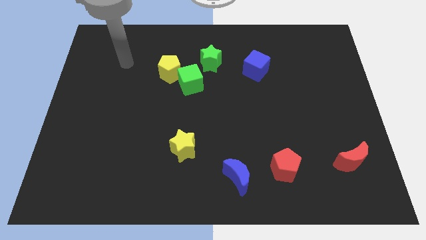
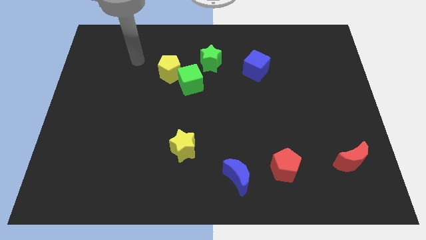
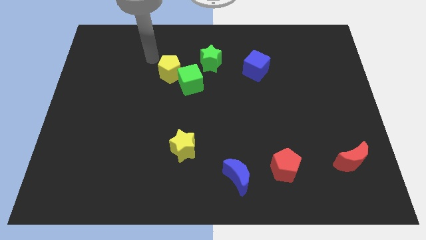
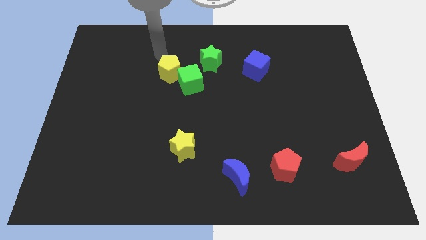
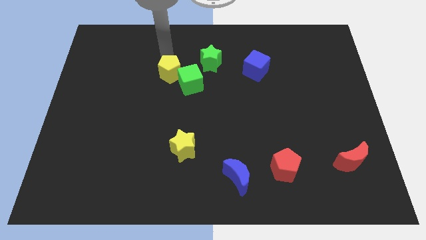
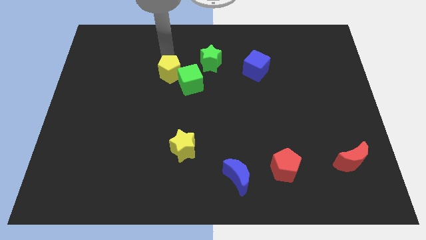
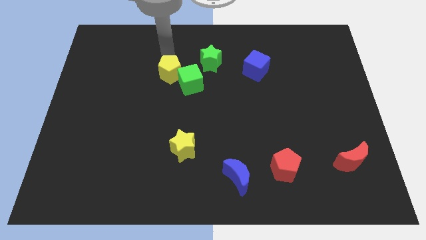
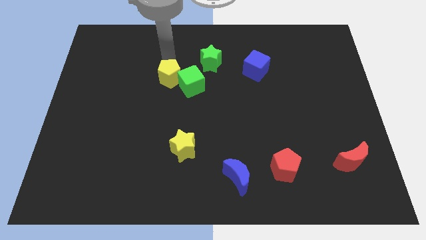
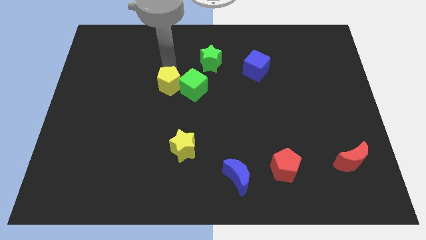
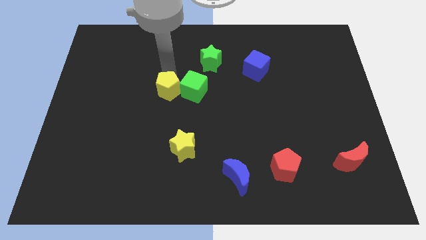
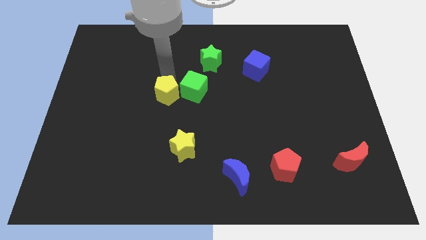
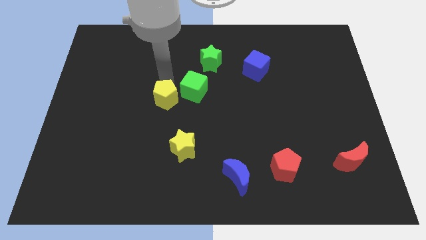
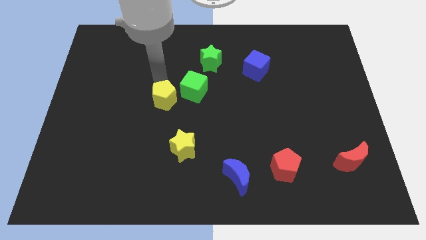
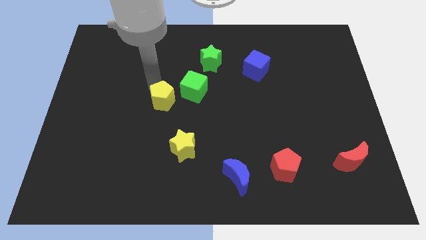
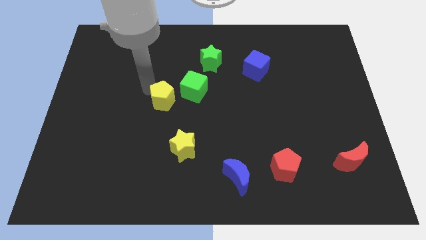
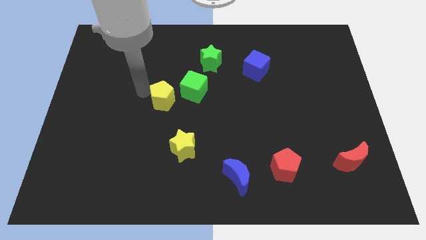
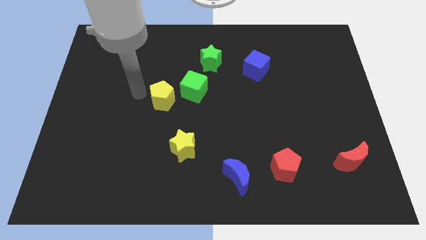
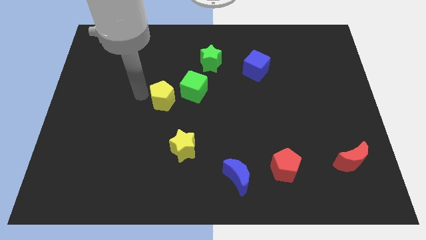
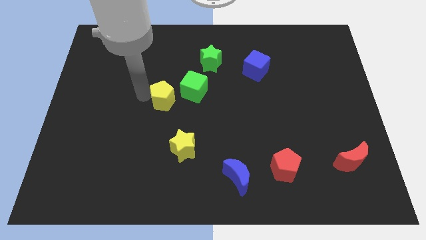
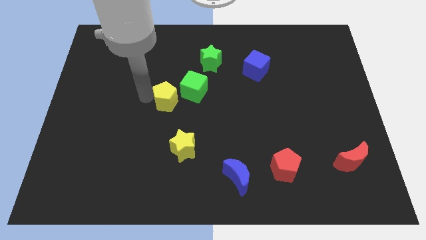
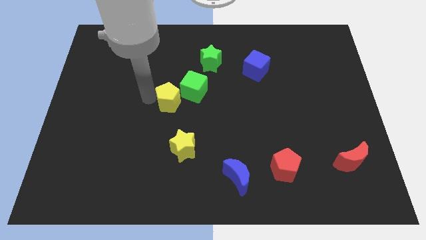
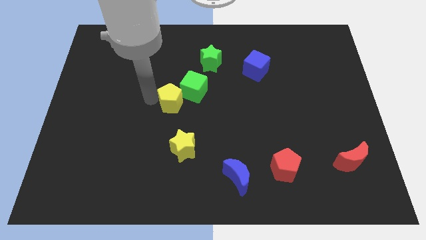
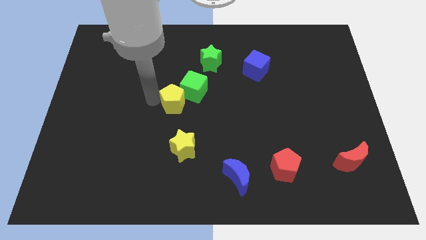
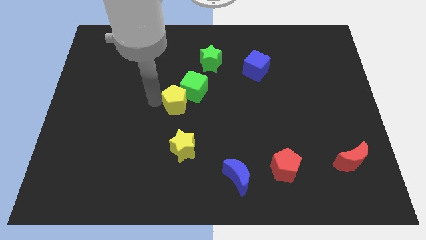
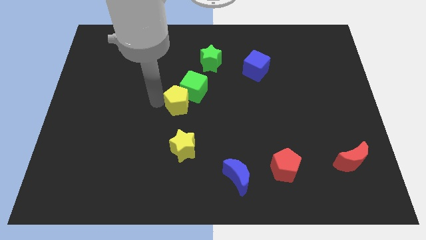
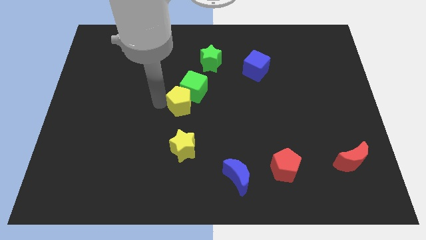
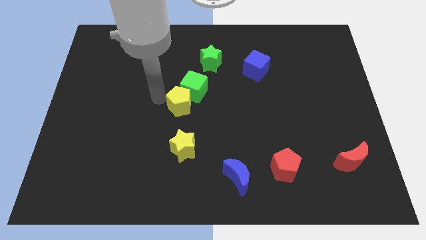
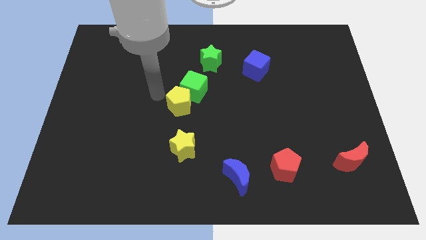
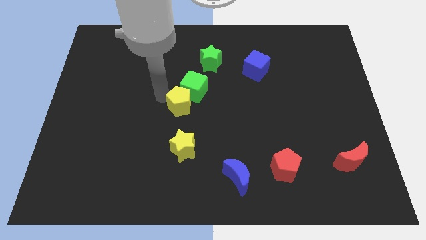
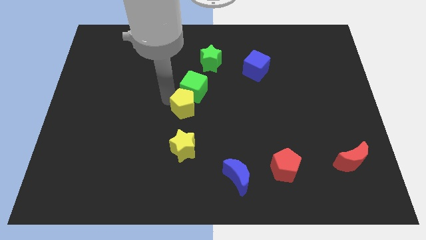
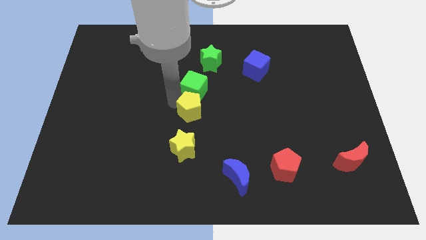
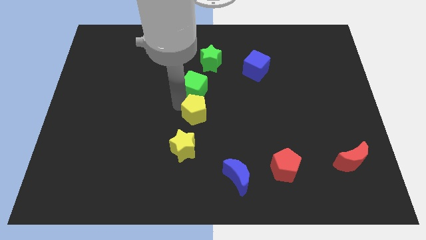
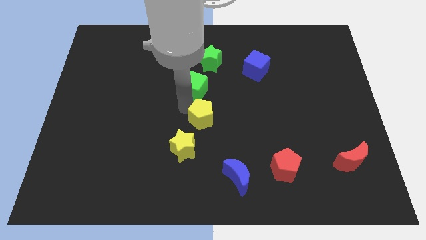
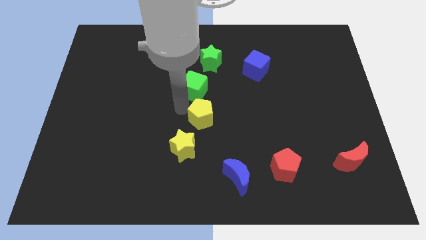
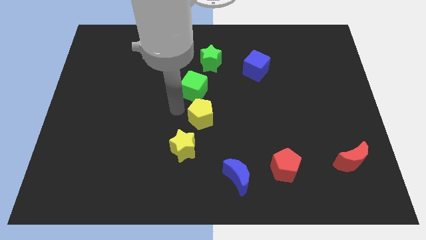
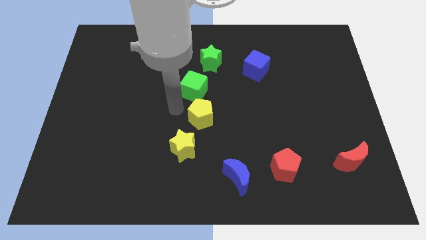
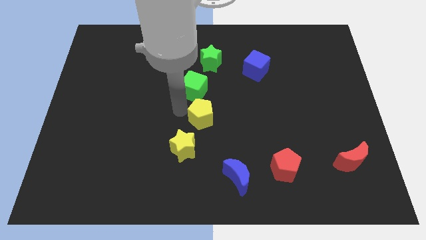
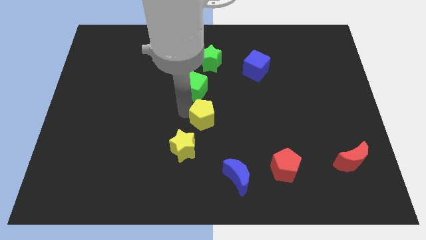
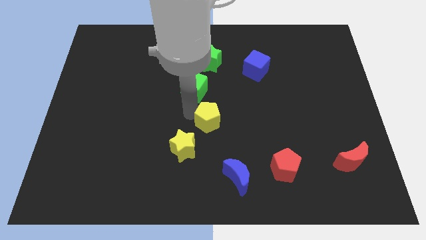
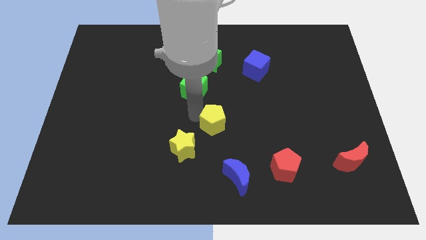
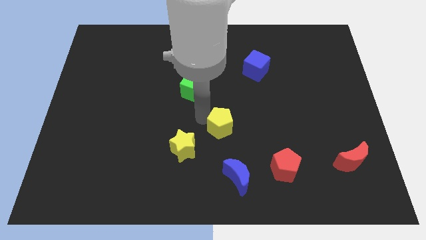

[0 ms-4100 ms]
push the yellow pentagon downwards and then right

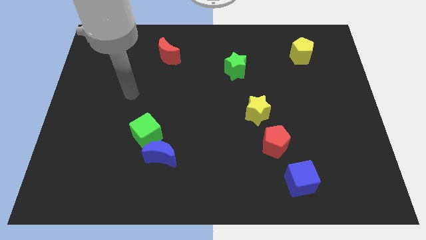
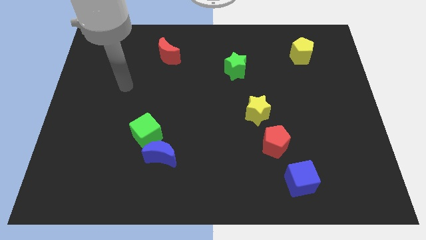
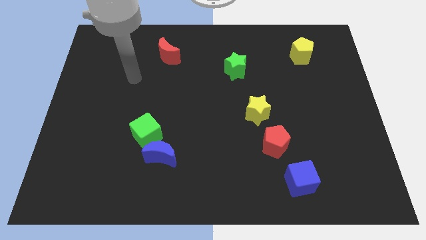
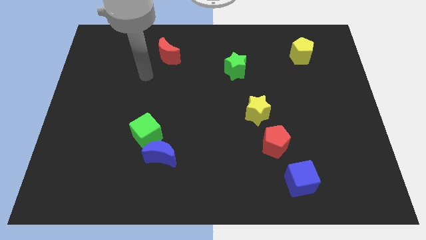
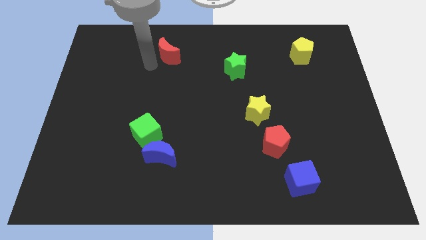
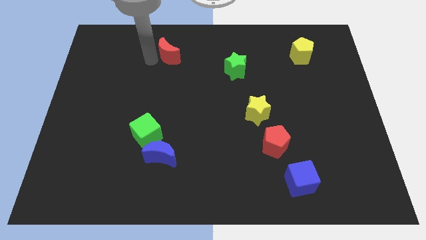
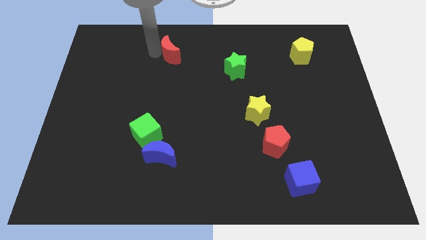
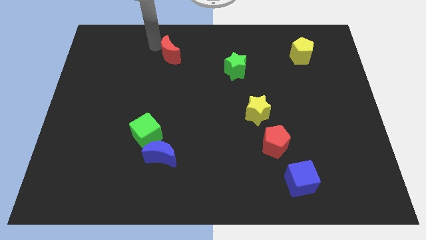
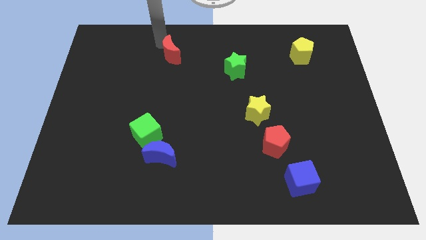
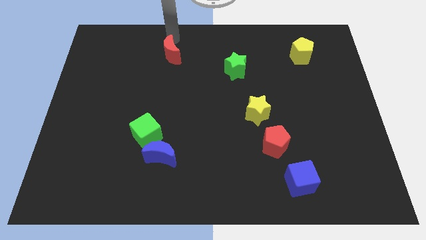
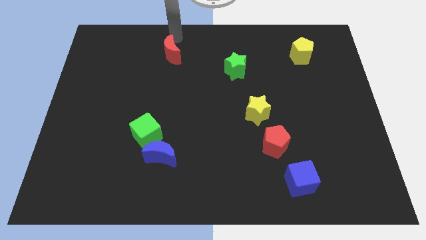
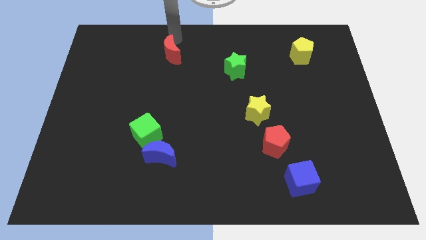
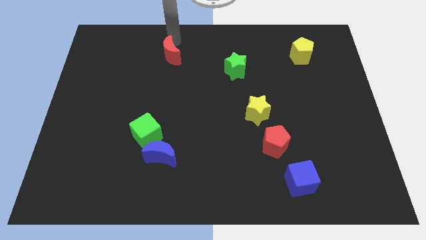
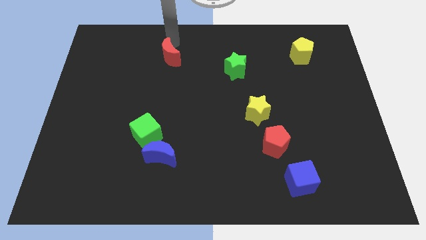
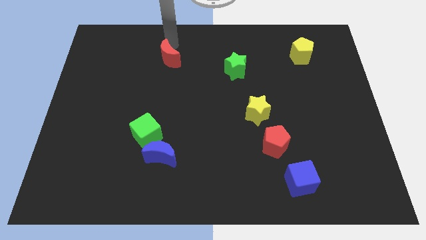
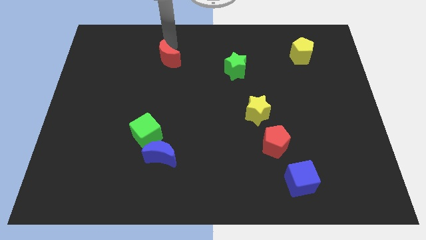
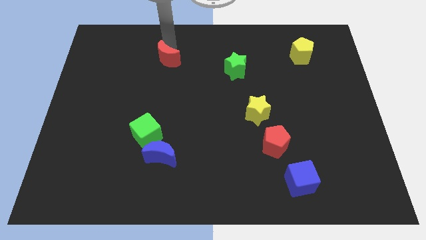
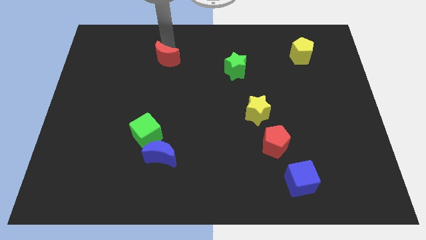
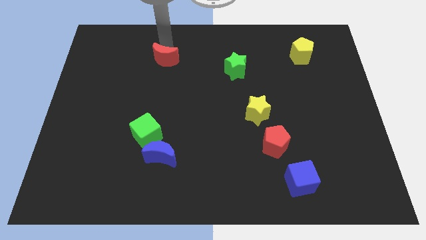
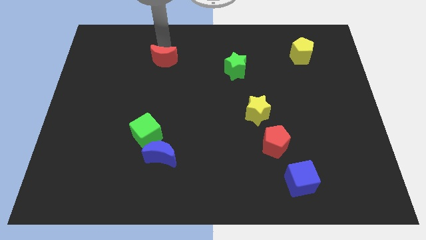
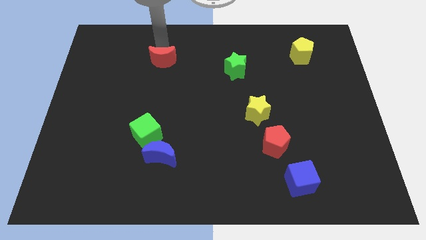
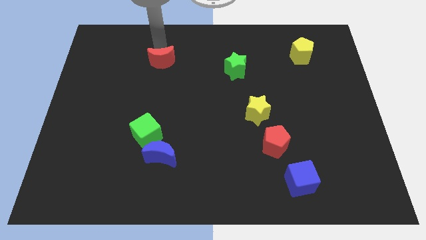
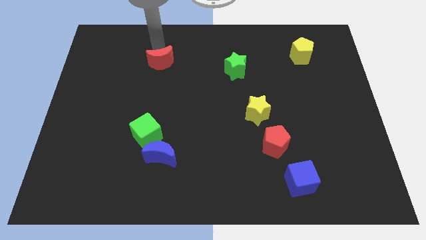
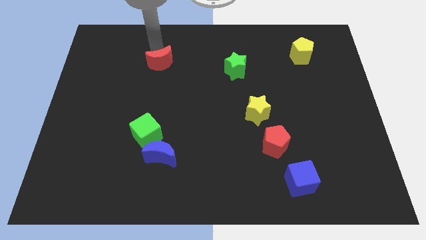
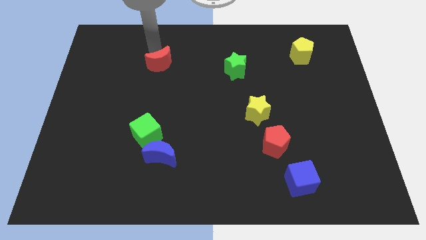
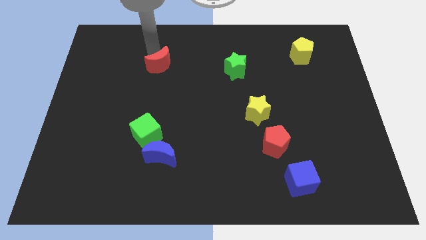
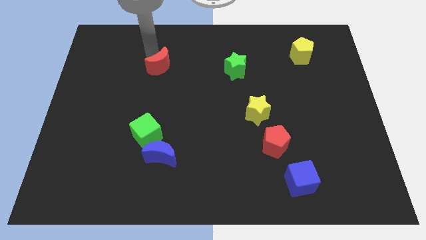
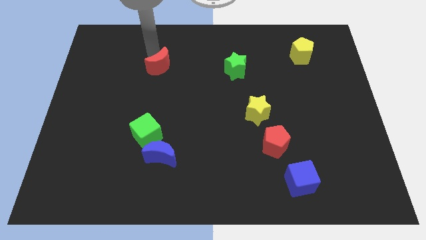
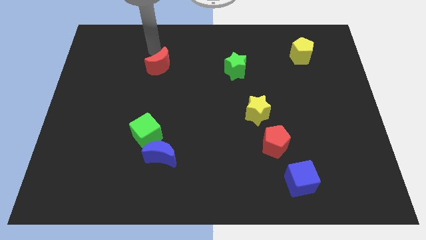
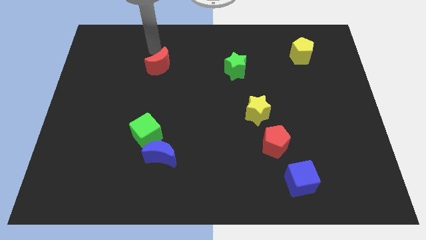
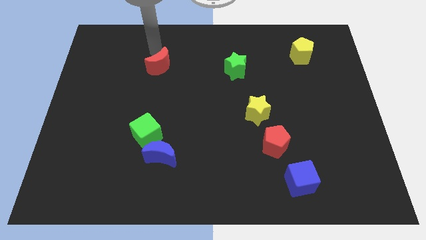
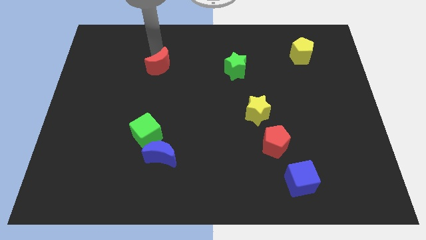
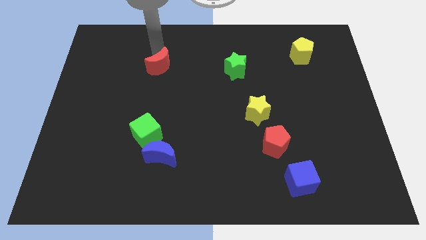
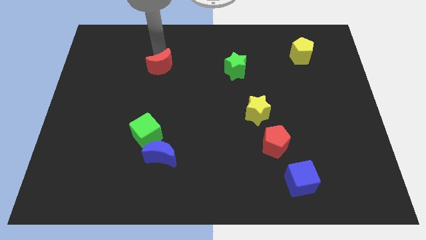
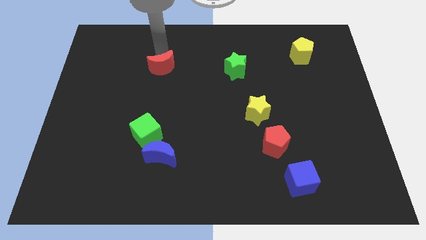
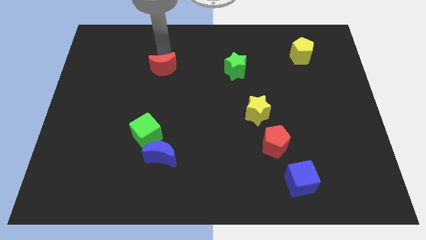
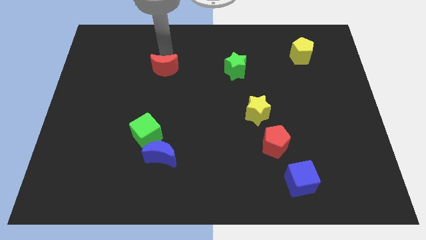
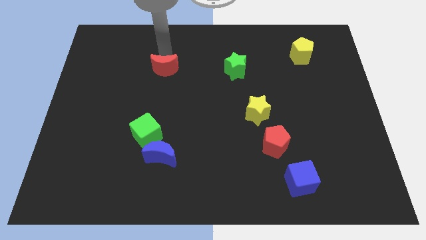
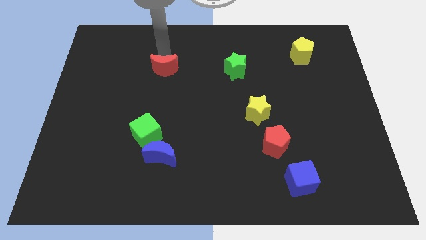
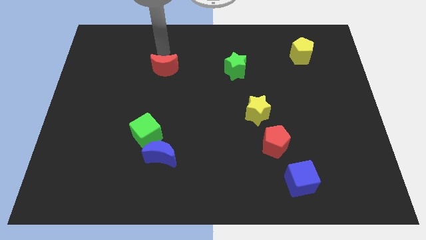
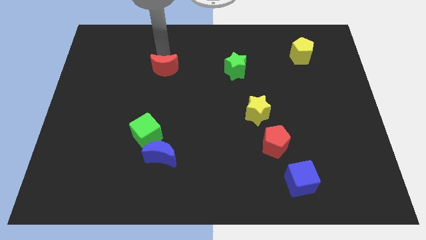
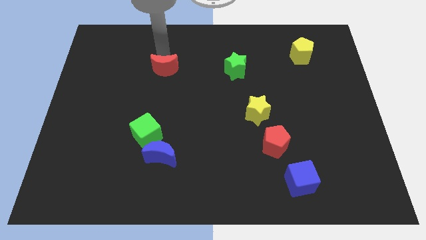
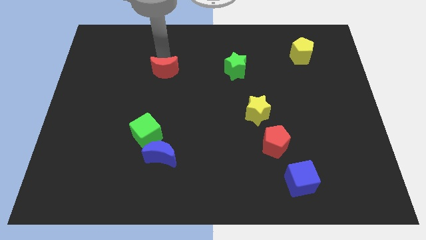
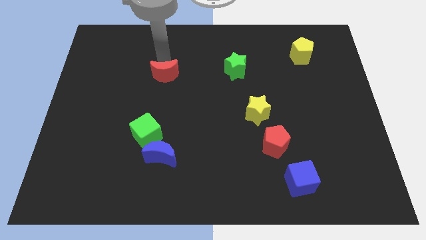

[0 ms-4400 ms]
move the red moon a bit down
